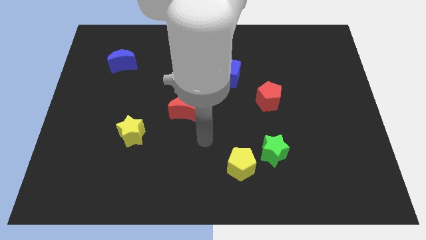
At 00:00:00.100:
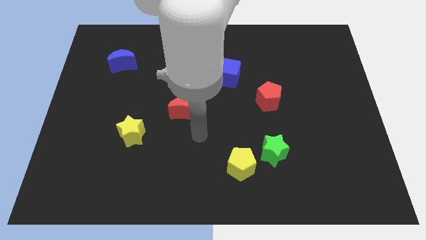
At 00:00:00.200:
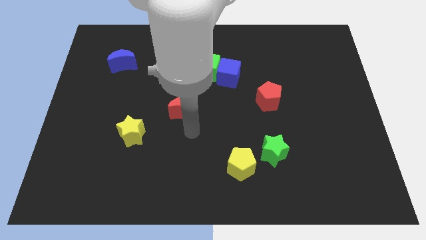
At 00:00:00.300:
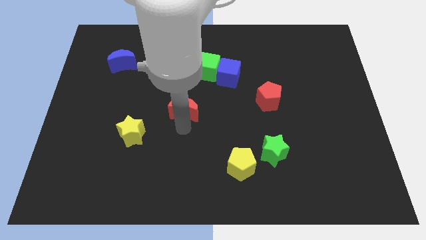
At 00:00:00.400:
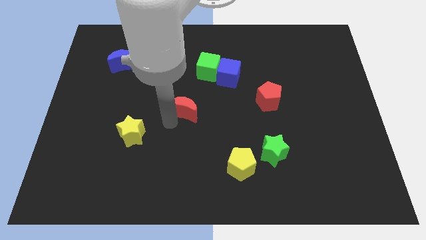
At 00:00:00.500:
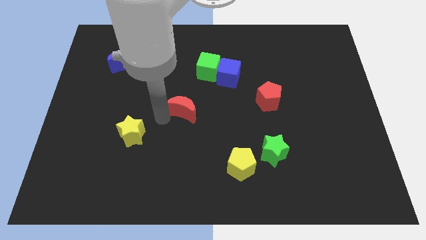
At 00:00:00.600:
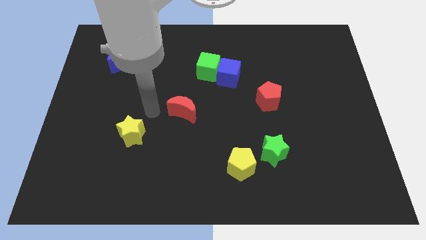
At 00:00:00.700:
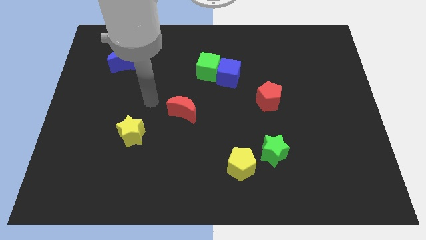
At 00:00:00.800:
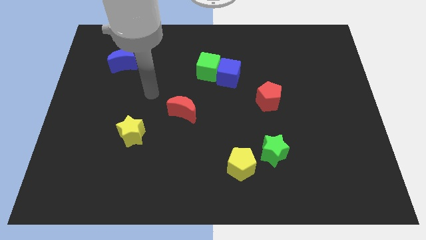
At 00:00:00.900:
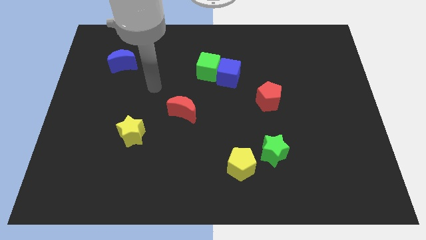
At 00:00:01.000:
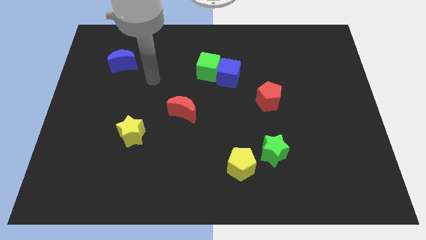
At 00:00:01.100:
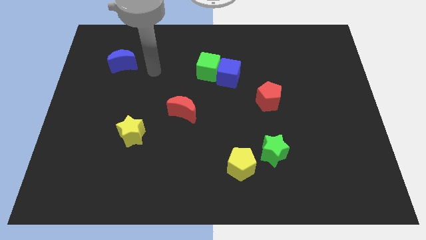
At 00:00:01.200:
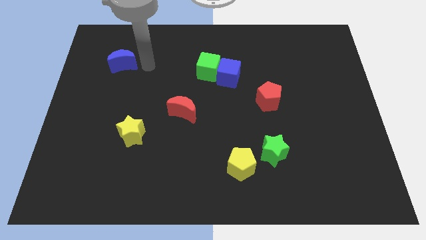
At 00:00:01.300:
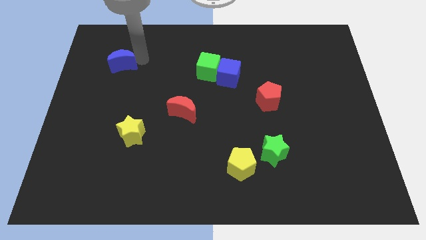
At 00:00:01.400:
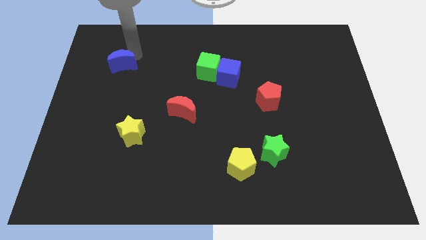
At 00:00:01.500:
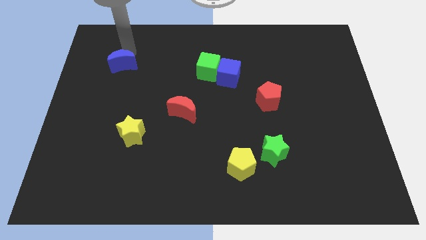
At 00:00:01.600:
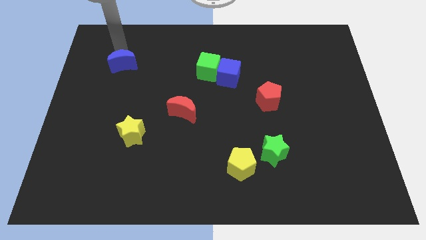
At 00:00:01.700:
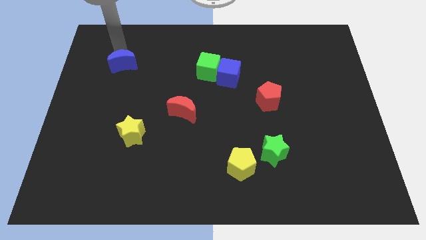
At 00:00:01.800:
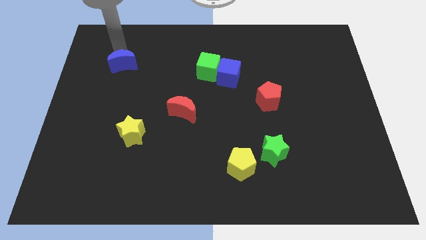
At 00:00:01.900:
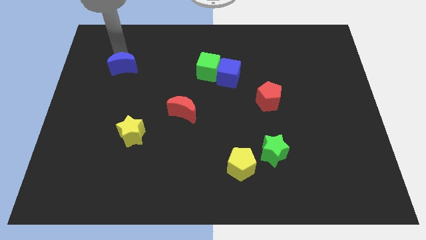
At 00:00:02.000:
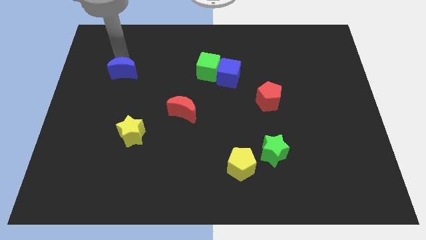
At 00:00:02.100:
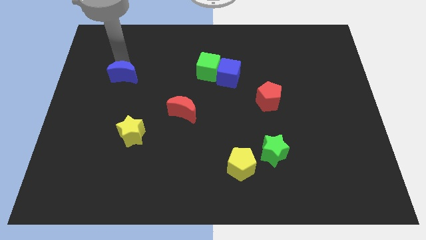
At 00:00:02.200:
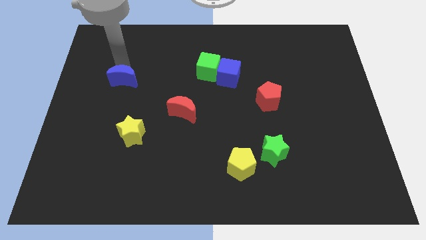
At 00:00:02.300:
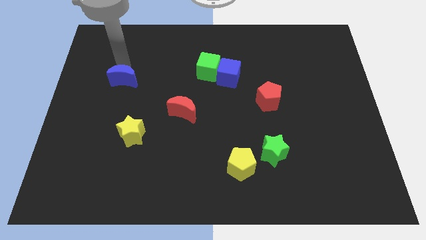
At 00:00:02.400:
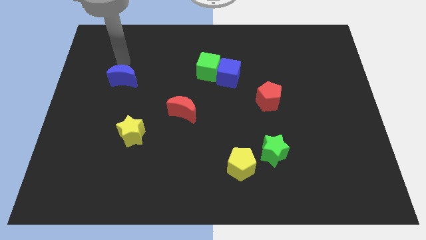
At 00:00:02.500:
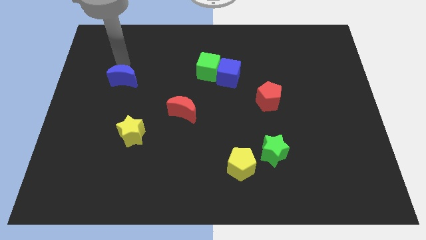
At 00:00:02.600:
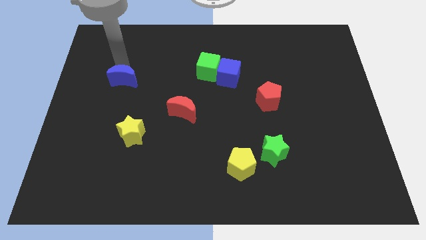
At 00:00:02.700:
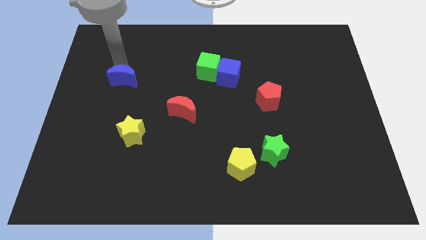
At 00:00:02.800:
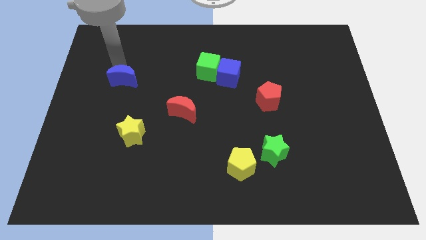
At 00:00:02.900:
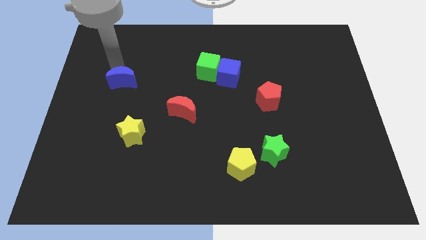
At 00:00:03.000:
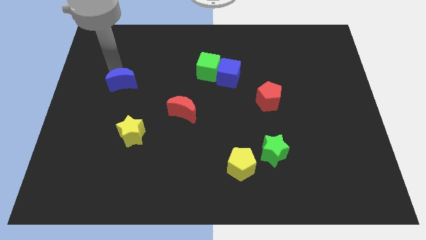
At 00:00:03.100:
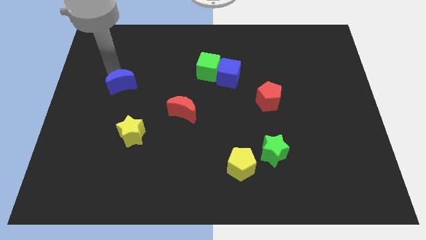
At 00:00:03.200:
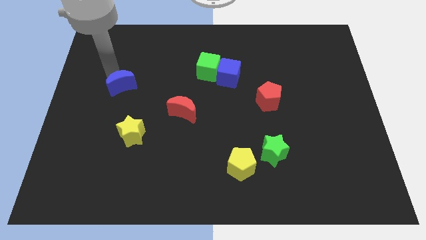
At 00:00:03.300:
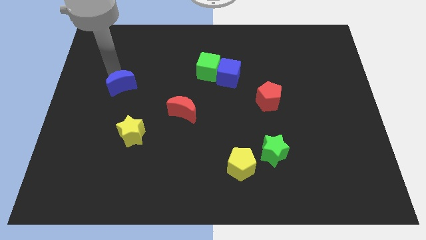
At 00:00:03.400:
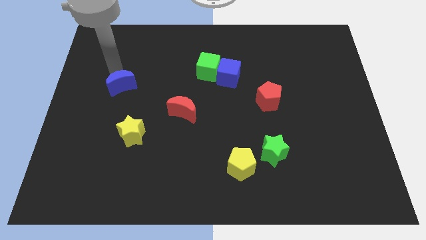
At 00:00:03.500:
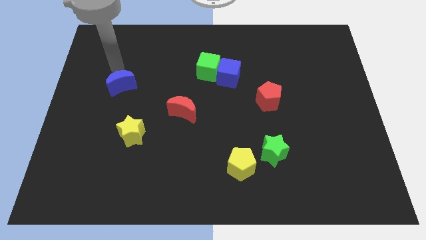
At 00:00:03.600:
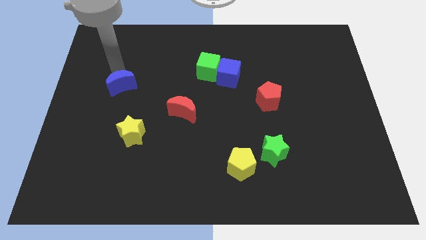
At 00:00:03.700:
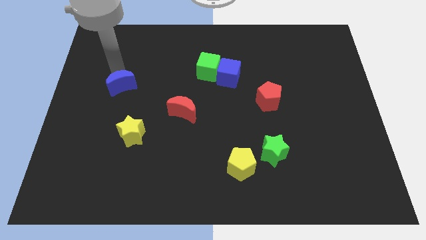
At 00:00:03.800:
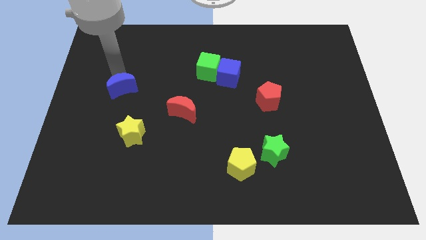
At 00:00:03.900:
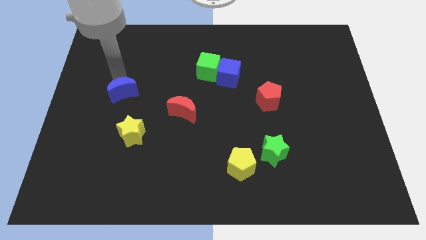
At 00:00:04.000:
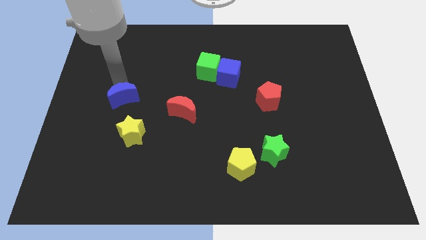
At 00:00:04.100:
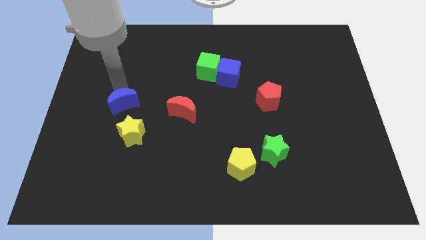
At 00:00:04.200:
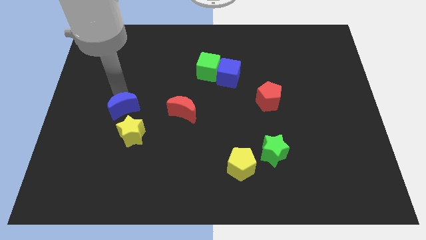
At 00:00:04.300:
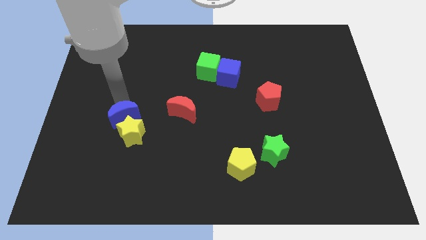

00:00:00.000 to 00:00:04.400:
slide the blue moon close to the yellow star

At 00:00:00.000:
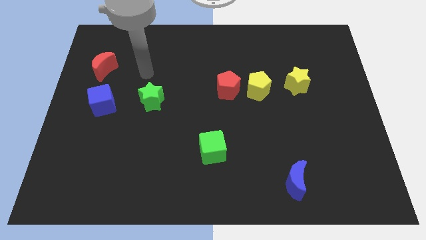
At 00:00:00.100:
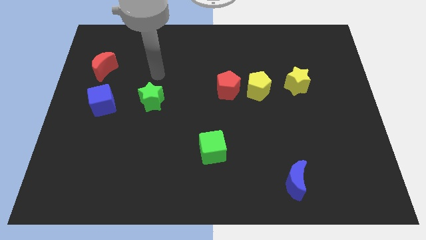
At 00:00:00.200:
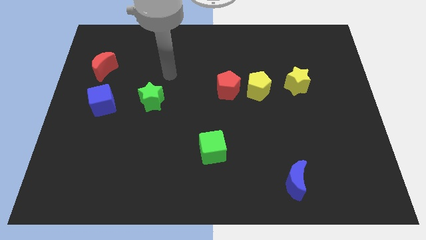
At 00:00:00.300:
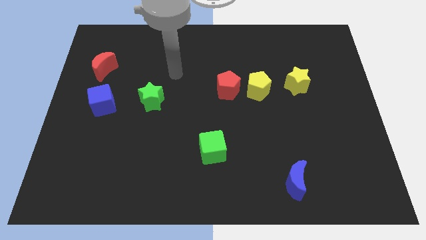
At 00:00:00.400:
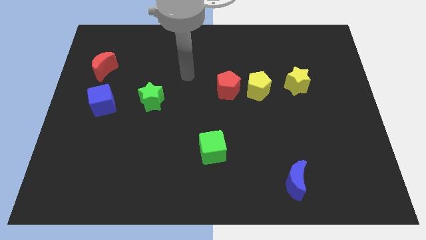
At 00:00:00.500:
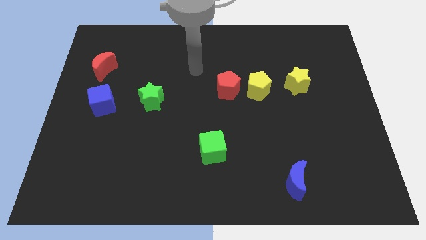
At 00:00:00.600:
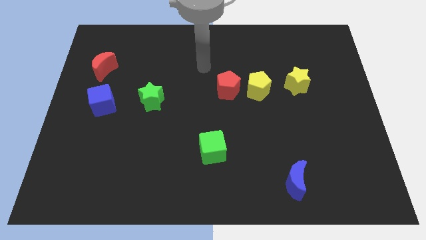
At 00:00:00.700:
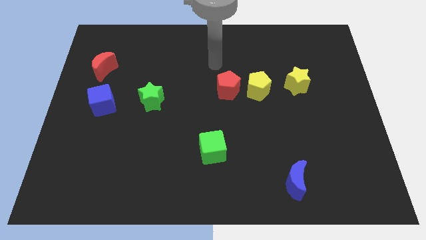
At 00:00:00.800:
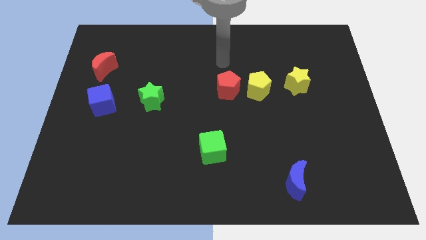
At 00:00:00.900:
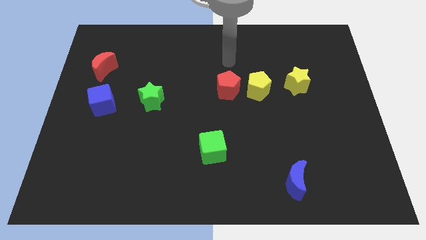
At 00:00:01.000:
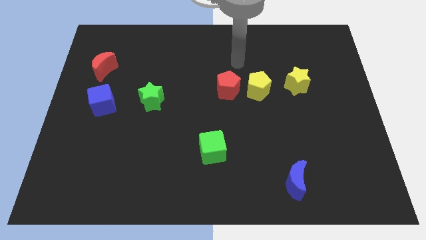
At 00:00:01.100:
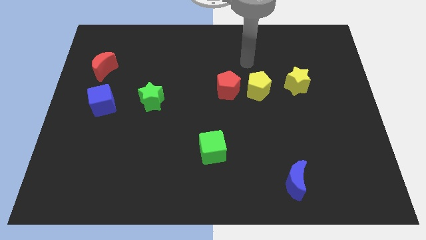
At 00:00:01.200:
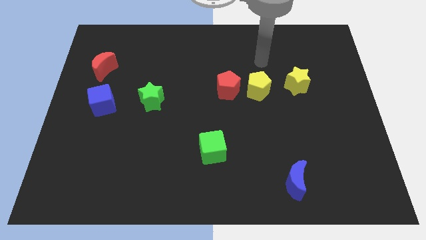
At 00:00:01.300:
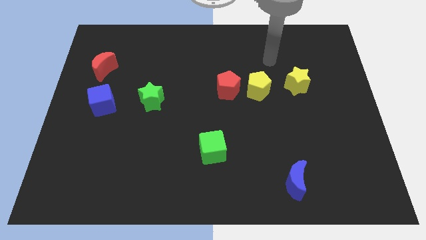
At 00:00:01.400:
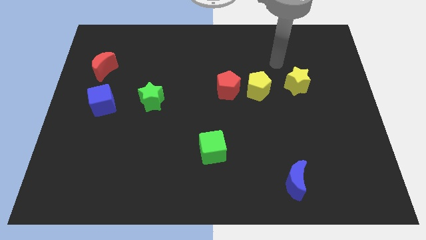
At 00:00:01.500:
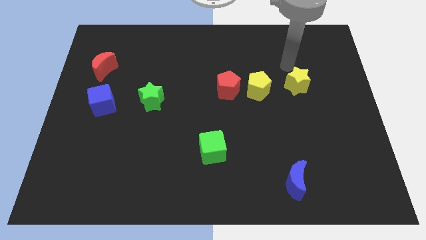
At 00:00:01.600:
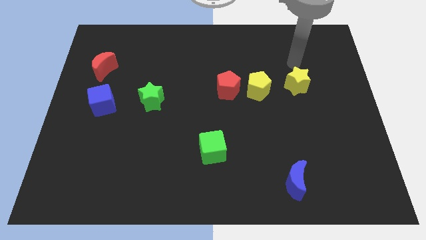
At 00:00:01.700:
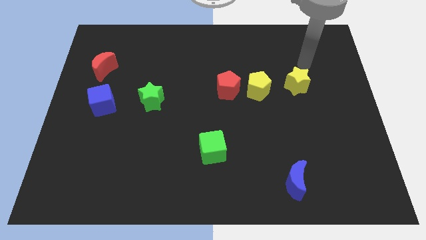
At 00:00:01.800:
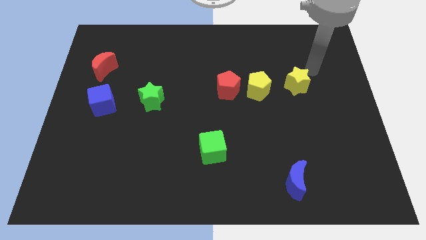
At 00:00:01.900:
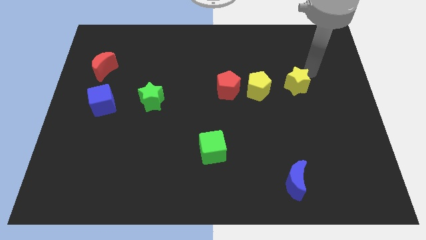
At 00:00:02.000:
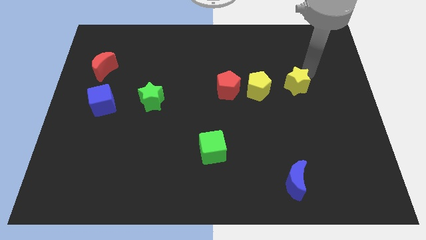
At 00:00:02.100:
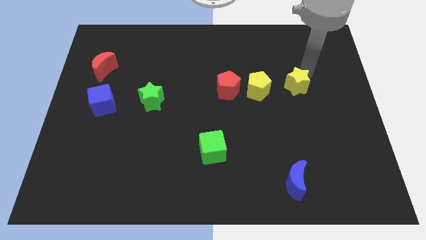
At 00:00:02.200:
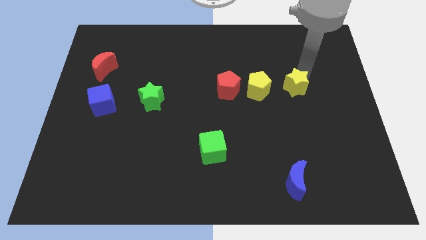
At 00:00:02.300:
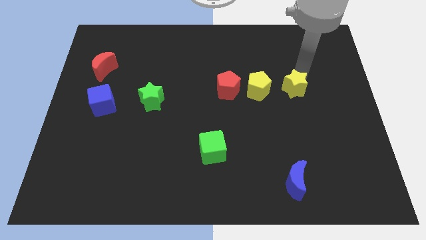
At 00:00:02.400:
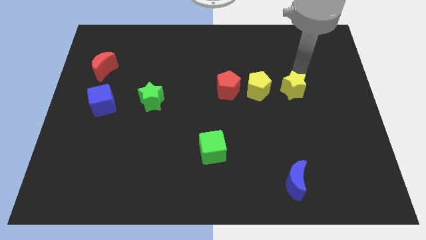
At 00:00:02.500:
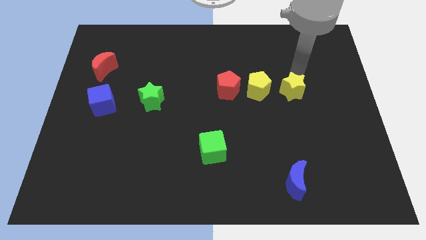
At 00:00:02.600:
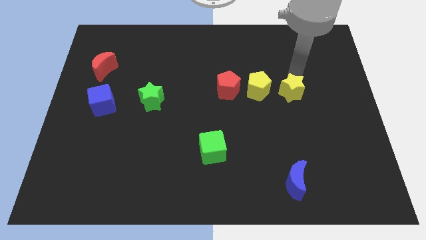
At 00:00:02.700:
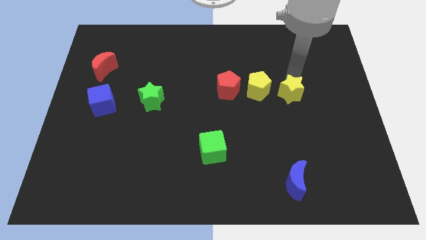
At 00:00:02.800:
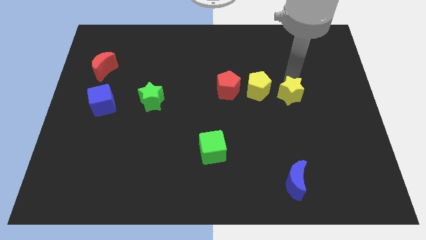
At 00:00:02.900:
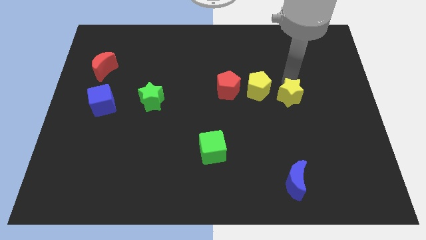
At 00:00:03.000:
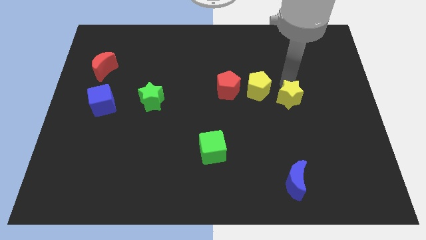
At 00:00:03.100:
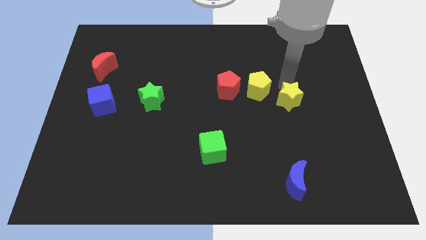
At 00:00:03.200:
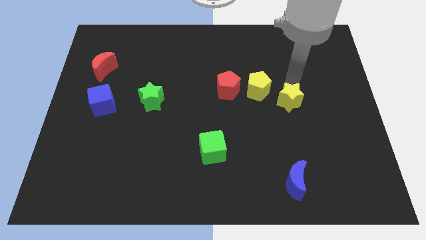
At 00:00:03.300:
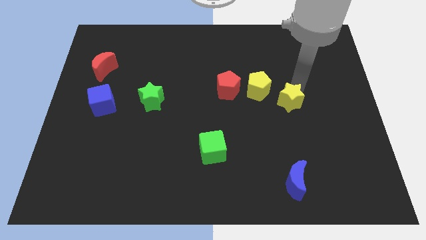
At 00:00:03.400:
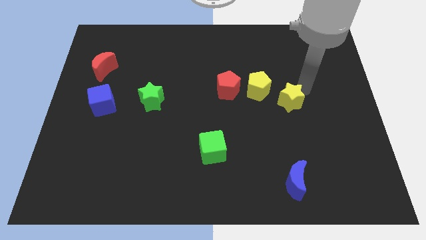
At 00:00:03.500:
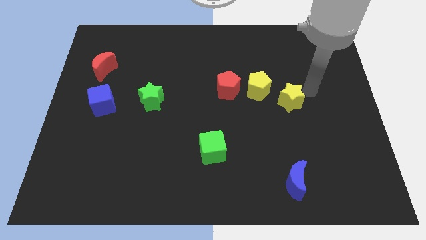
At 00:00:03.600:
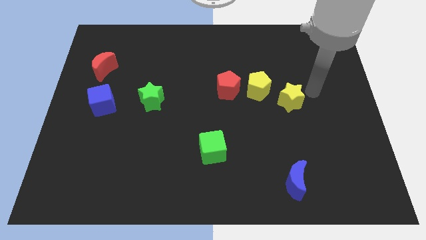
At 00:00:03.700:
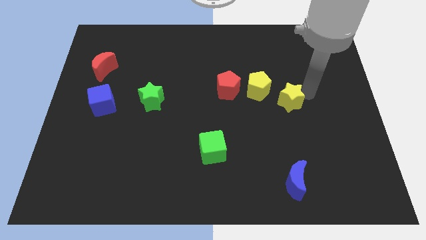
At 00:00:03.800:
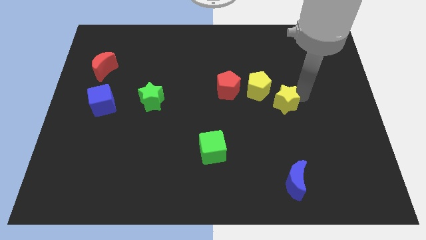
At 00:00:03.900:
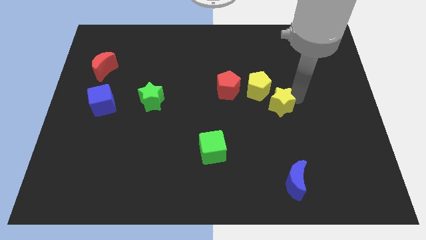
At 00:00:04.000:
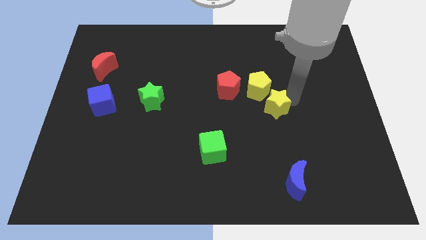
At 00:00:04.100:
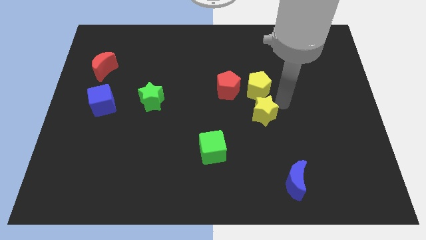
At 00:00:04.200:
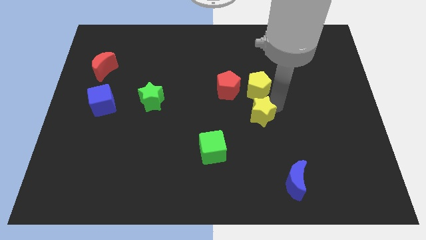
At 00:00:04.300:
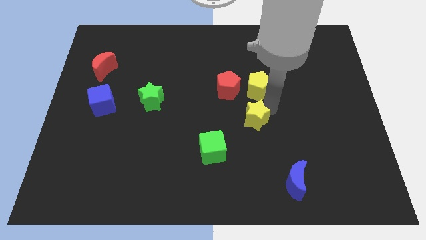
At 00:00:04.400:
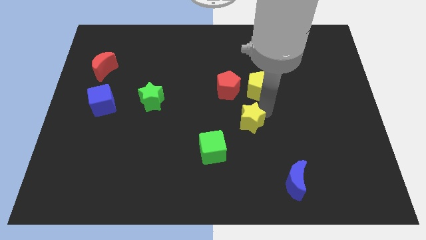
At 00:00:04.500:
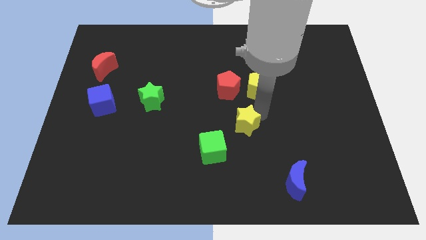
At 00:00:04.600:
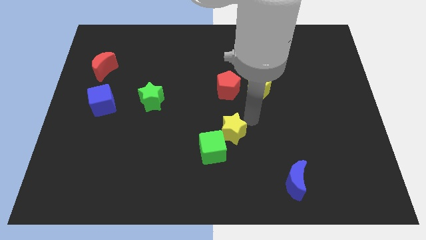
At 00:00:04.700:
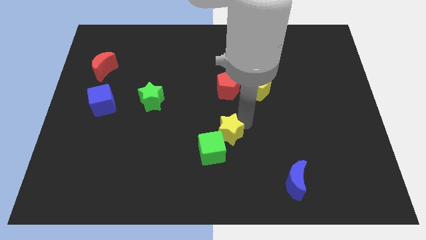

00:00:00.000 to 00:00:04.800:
slide the yellow star to the green cube
